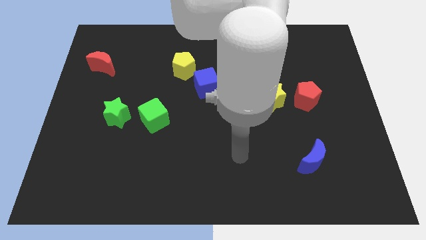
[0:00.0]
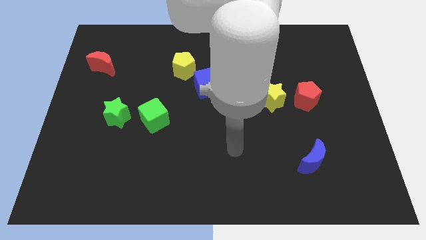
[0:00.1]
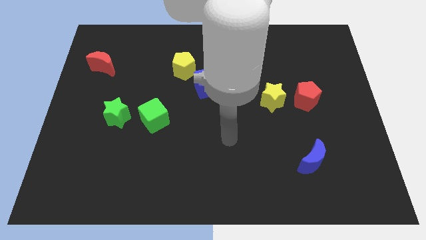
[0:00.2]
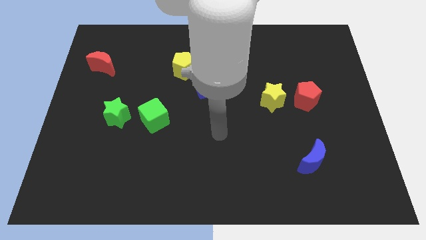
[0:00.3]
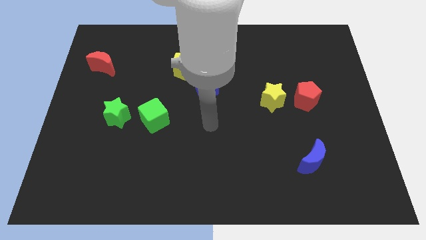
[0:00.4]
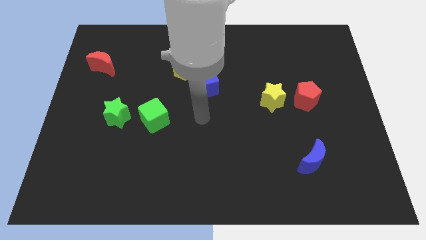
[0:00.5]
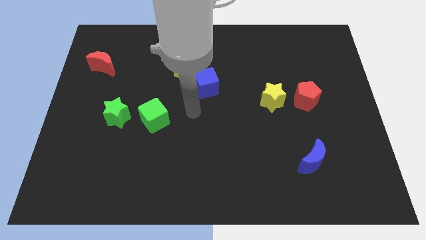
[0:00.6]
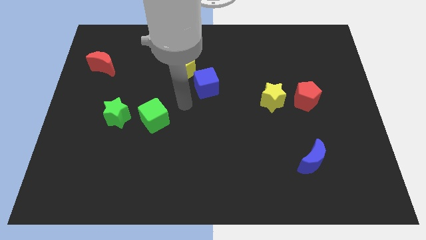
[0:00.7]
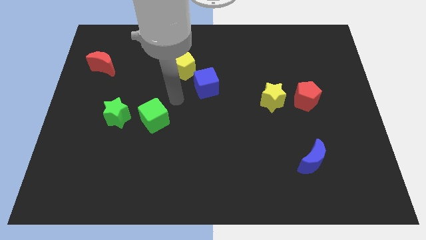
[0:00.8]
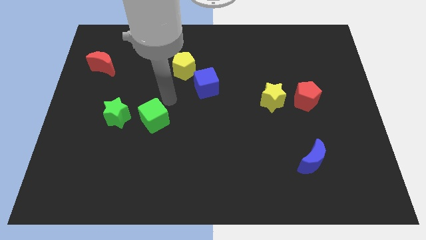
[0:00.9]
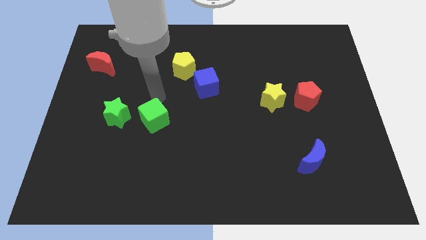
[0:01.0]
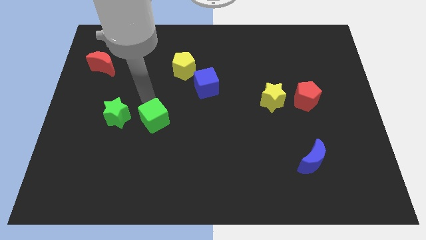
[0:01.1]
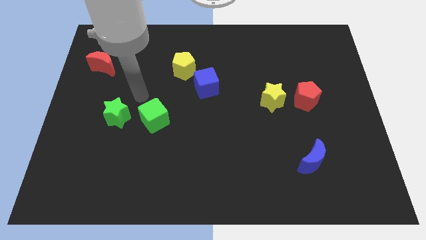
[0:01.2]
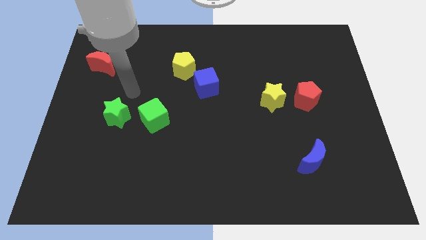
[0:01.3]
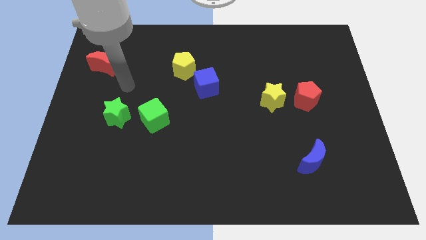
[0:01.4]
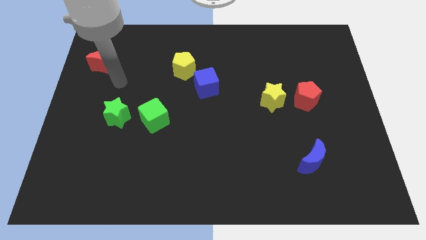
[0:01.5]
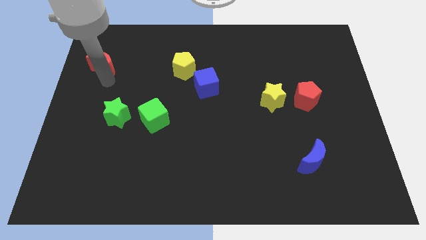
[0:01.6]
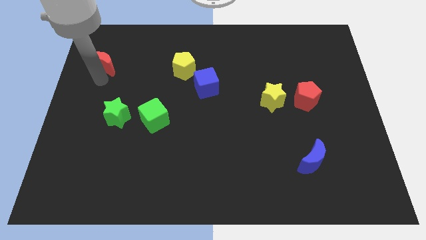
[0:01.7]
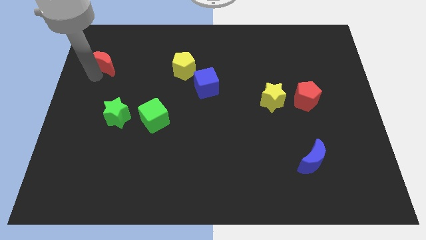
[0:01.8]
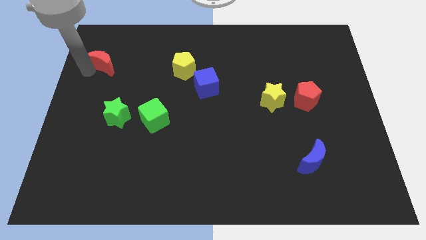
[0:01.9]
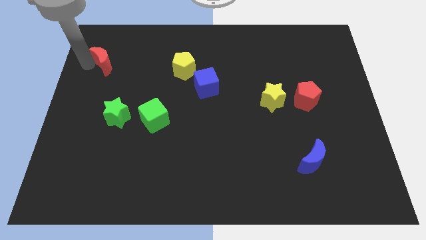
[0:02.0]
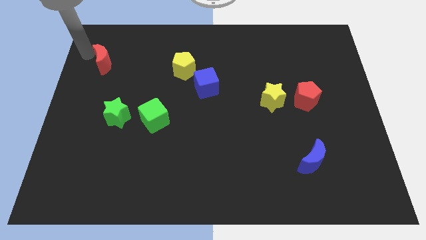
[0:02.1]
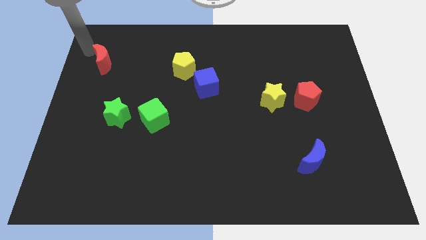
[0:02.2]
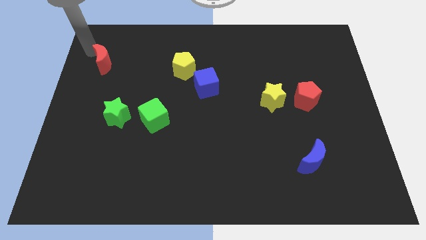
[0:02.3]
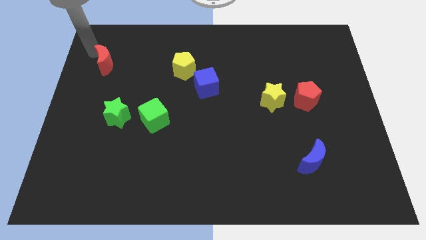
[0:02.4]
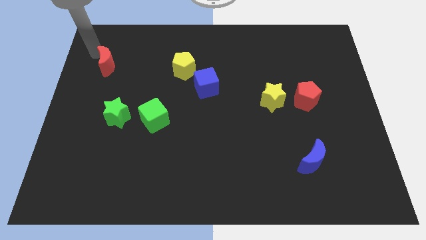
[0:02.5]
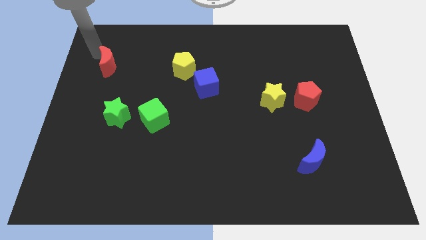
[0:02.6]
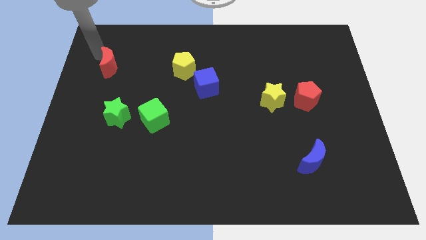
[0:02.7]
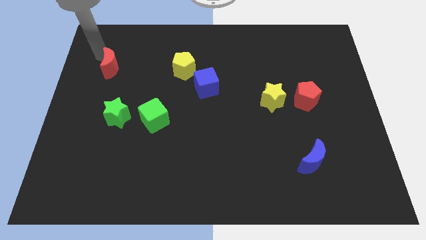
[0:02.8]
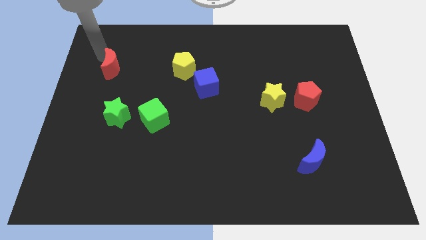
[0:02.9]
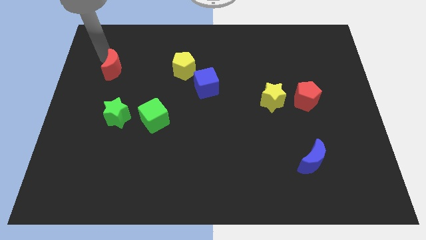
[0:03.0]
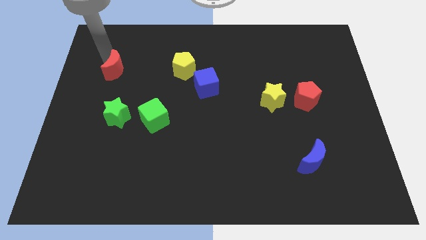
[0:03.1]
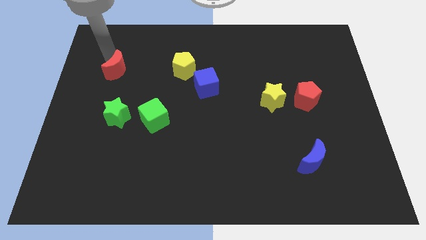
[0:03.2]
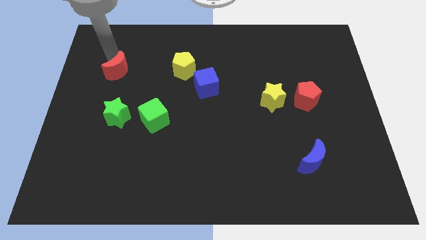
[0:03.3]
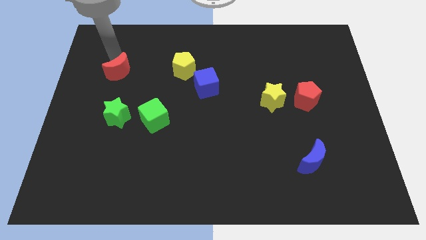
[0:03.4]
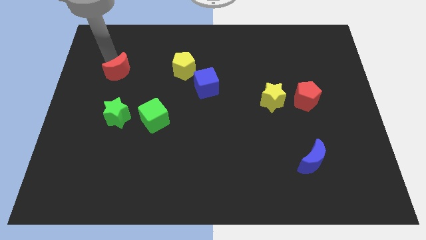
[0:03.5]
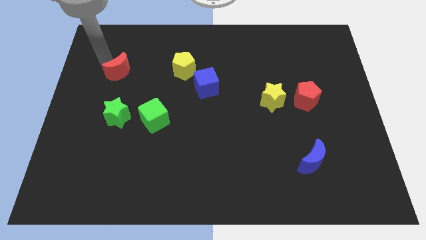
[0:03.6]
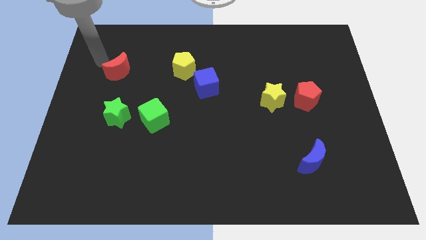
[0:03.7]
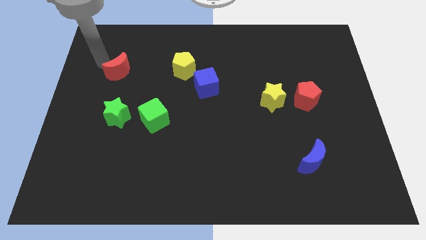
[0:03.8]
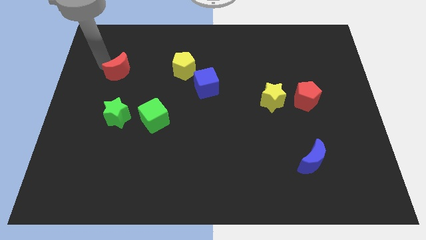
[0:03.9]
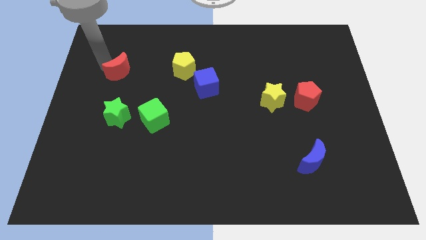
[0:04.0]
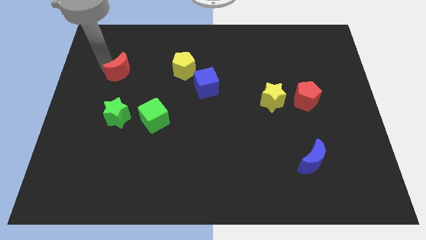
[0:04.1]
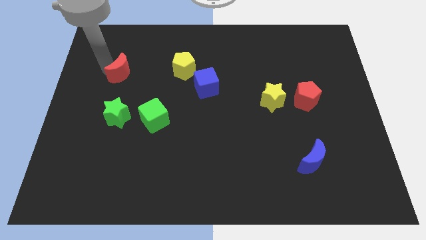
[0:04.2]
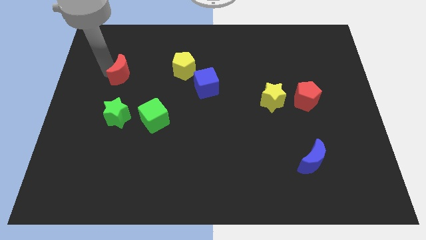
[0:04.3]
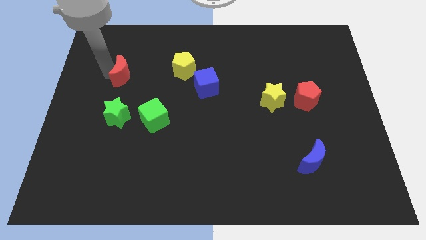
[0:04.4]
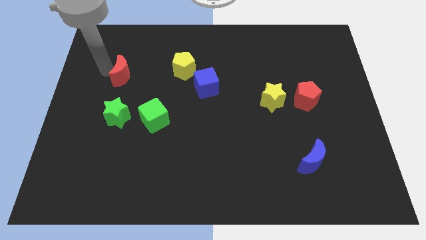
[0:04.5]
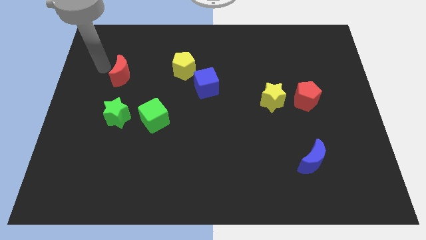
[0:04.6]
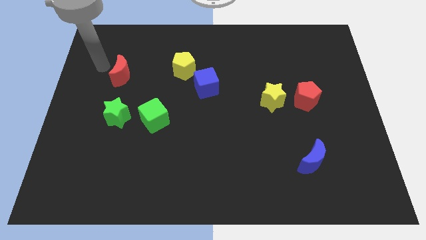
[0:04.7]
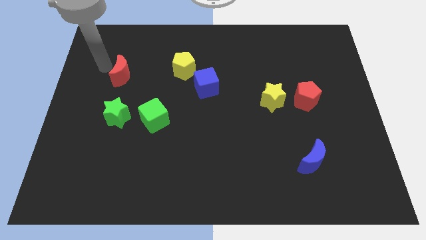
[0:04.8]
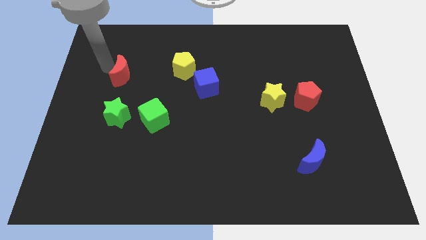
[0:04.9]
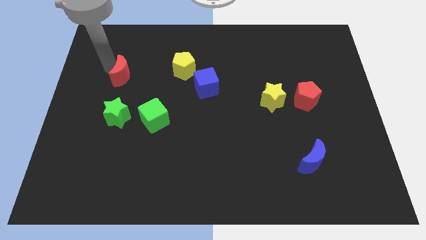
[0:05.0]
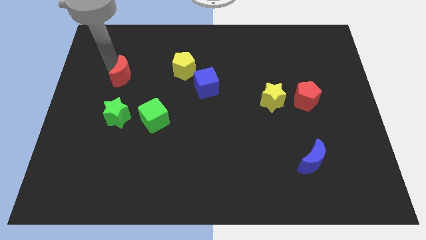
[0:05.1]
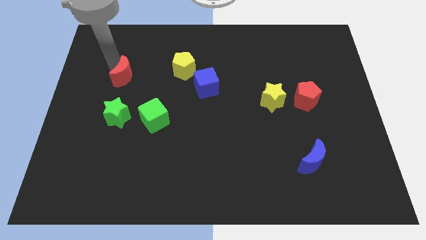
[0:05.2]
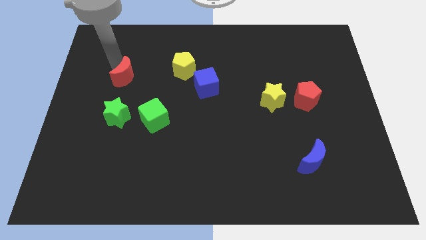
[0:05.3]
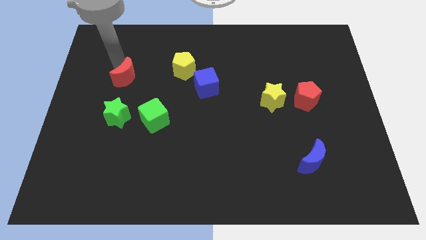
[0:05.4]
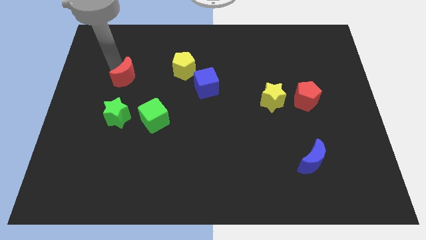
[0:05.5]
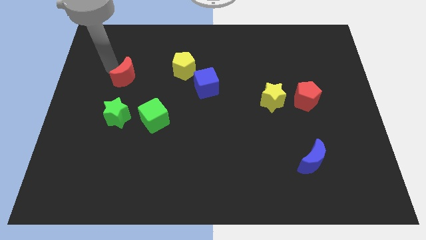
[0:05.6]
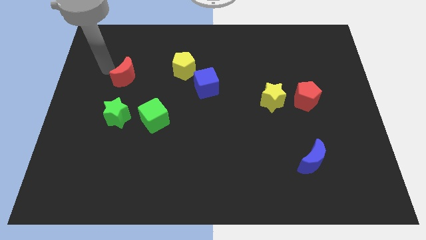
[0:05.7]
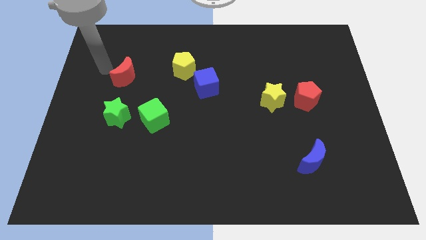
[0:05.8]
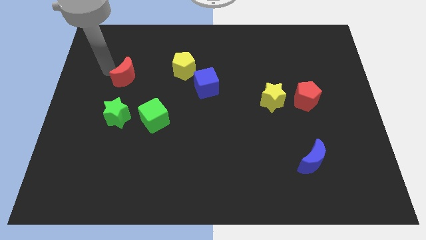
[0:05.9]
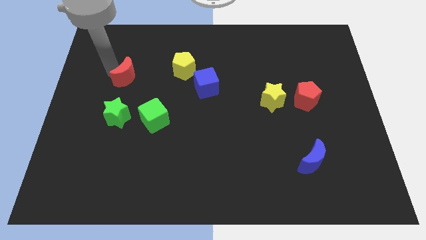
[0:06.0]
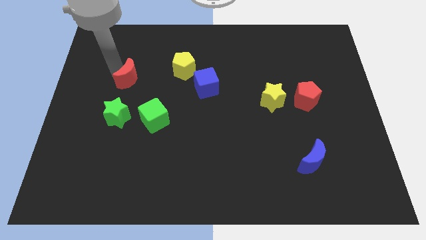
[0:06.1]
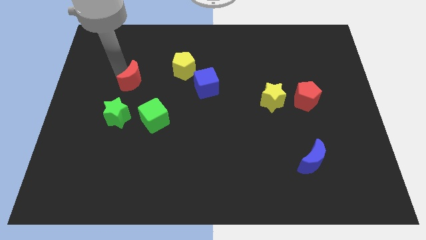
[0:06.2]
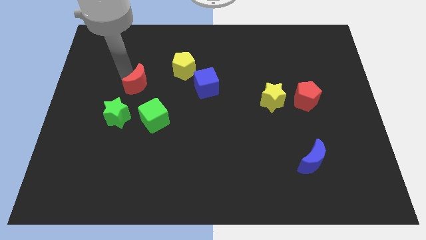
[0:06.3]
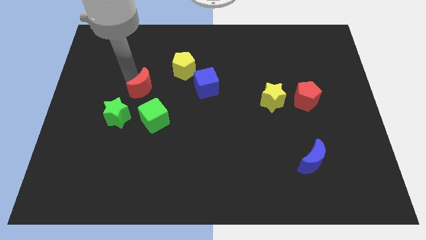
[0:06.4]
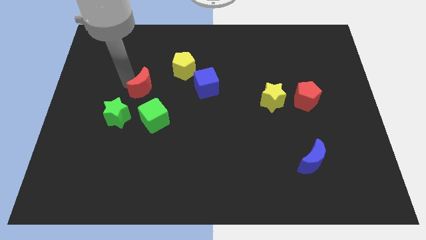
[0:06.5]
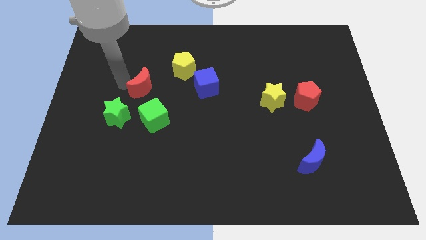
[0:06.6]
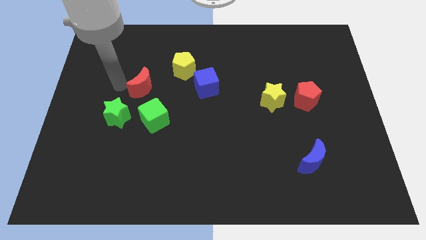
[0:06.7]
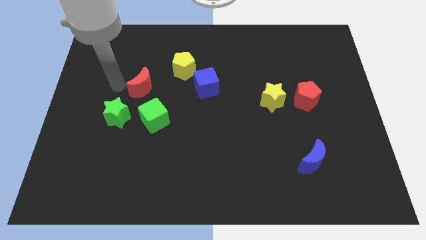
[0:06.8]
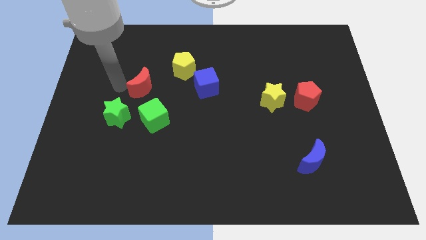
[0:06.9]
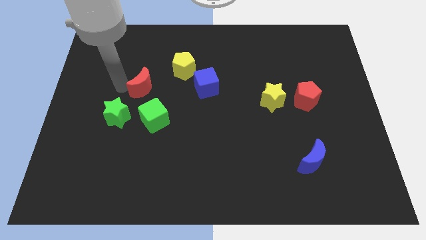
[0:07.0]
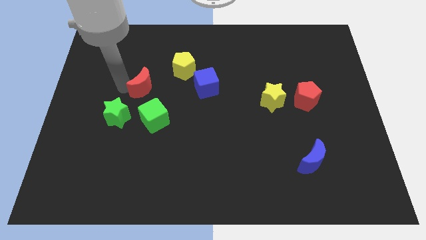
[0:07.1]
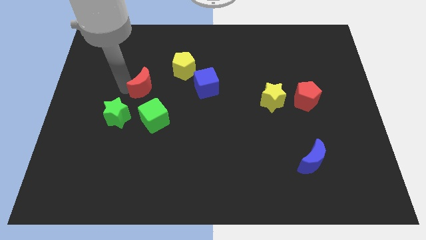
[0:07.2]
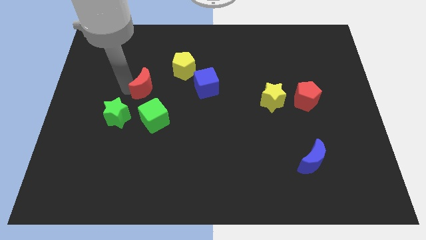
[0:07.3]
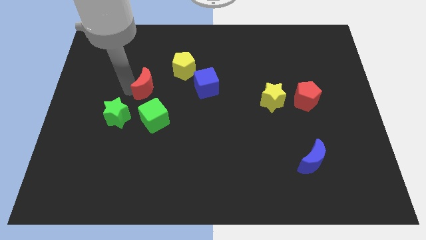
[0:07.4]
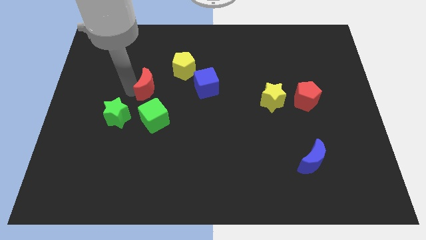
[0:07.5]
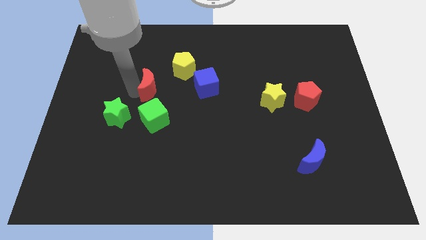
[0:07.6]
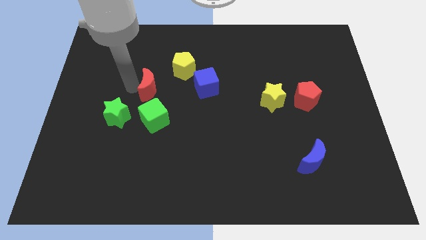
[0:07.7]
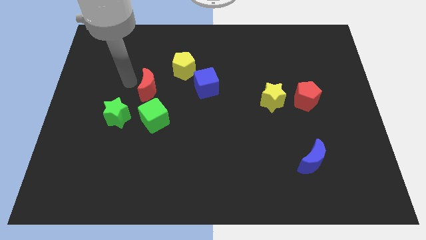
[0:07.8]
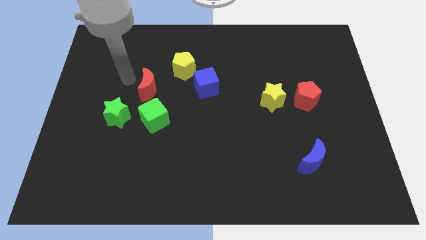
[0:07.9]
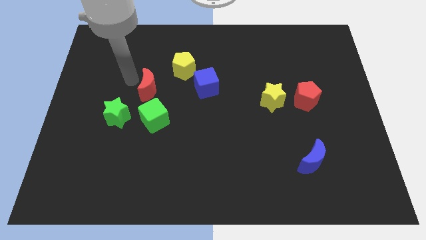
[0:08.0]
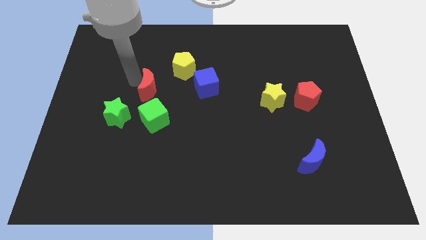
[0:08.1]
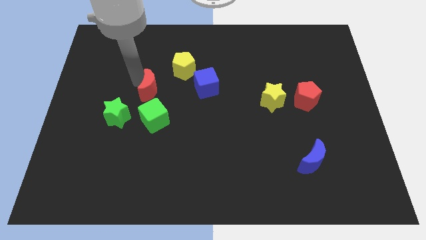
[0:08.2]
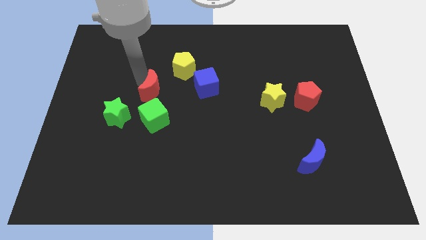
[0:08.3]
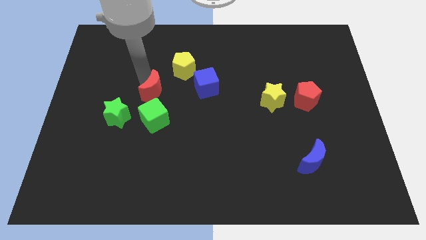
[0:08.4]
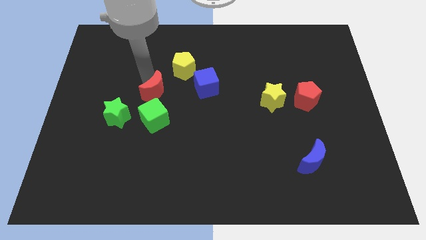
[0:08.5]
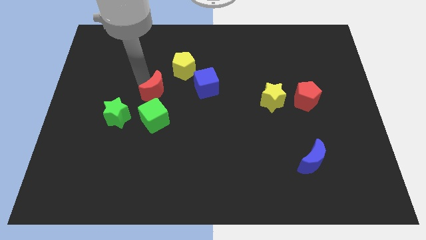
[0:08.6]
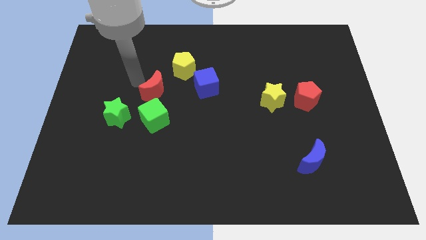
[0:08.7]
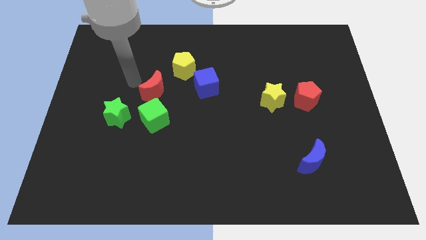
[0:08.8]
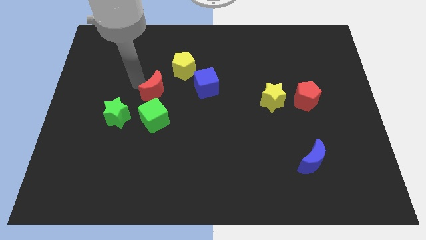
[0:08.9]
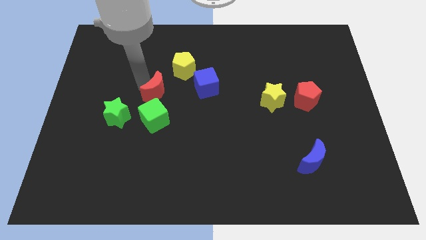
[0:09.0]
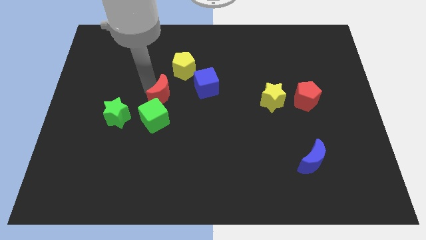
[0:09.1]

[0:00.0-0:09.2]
move the red moon to the center
